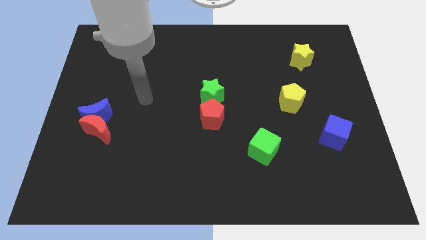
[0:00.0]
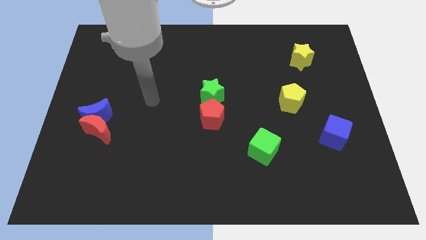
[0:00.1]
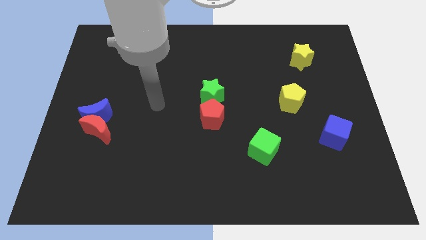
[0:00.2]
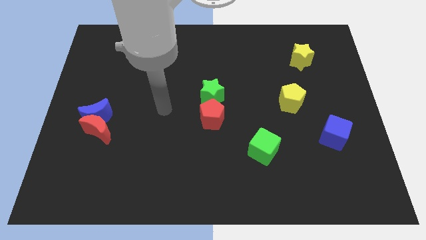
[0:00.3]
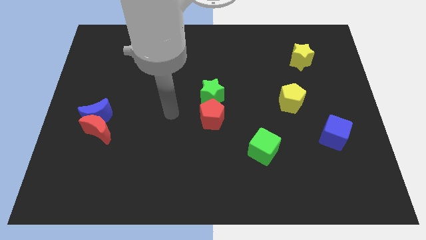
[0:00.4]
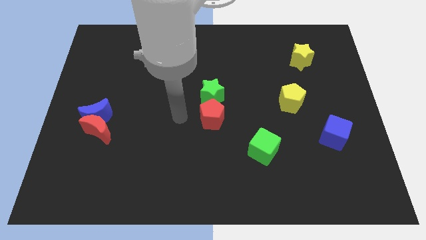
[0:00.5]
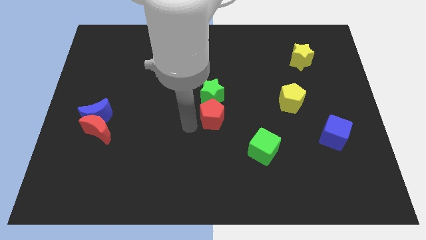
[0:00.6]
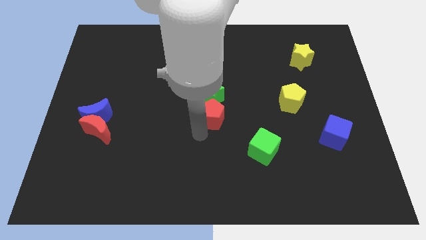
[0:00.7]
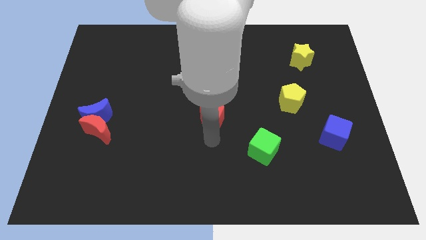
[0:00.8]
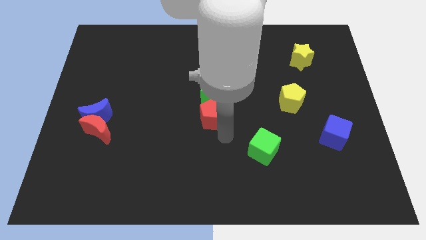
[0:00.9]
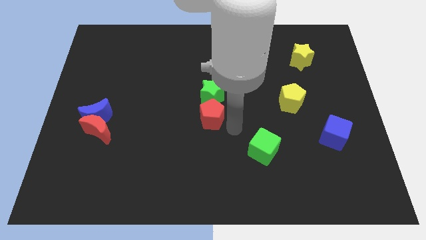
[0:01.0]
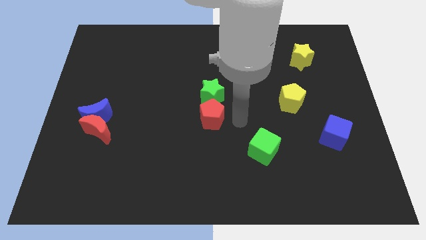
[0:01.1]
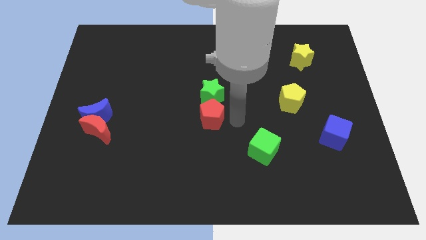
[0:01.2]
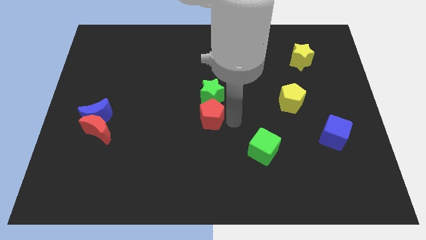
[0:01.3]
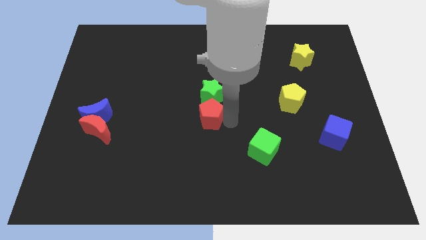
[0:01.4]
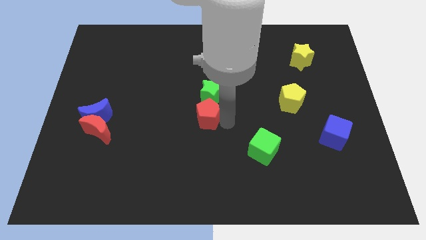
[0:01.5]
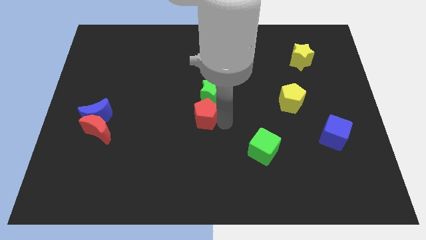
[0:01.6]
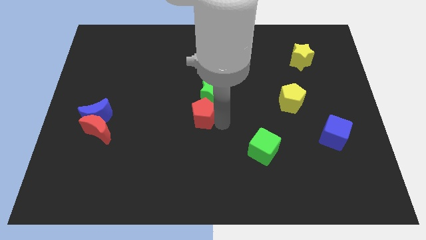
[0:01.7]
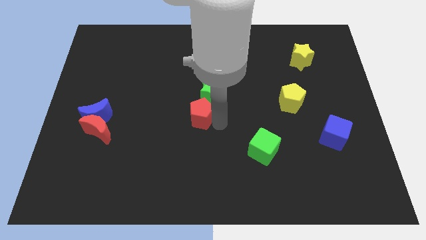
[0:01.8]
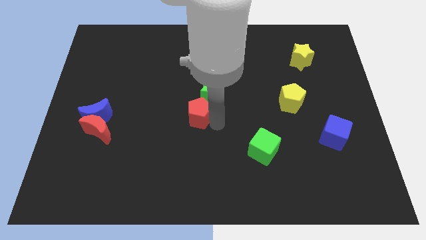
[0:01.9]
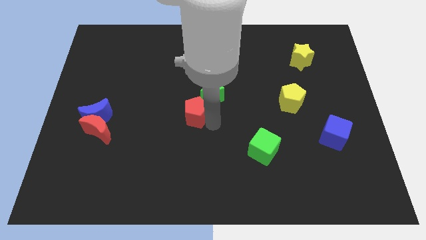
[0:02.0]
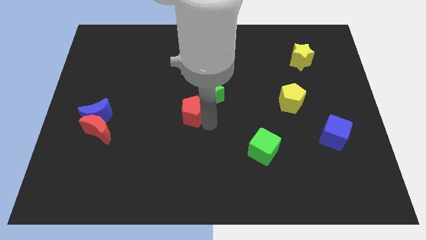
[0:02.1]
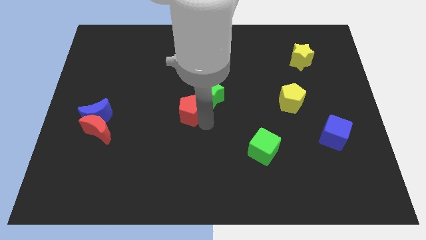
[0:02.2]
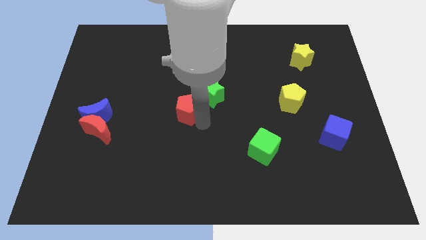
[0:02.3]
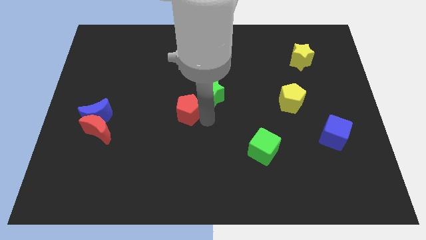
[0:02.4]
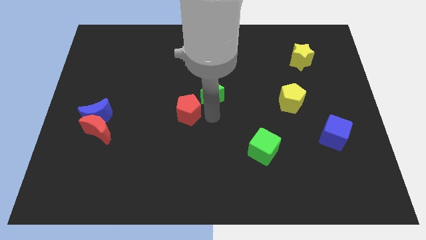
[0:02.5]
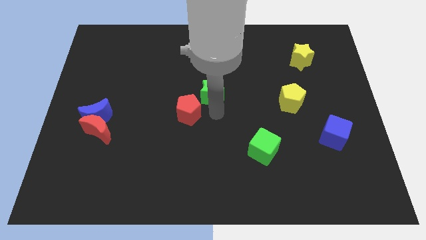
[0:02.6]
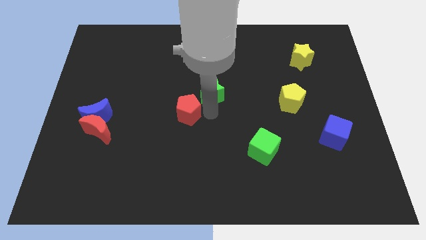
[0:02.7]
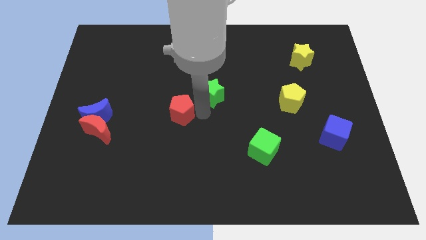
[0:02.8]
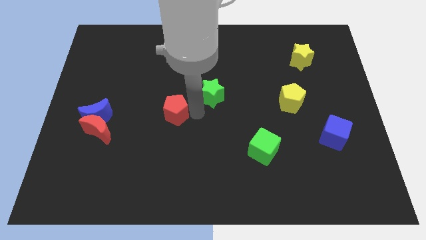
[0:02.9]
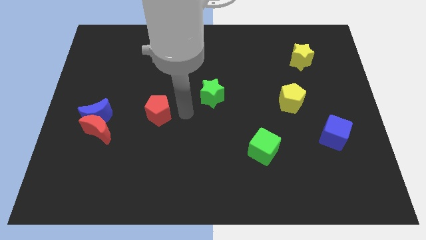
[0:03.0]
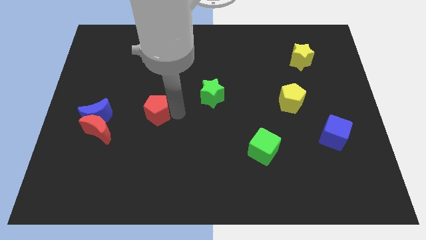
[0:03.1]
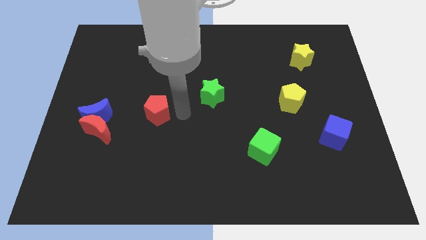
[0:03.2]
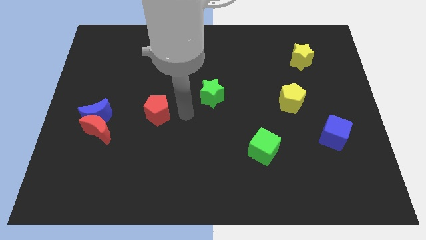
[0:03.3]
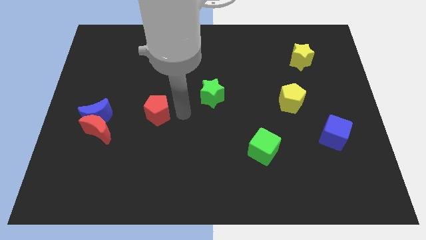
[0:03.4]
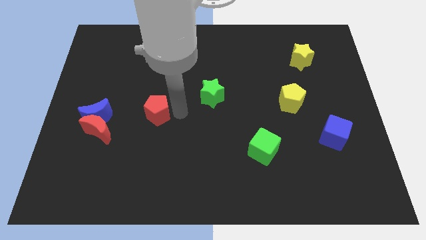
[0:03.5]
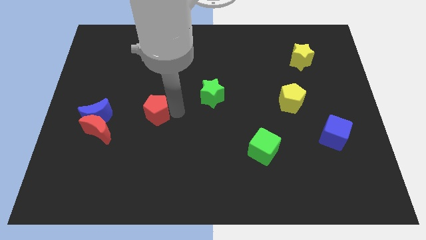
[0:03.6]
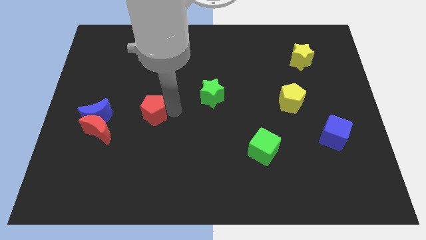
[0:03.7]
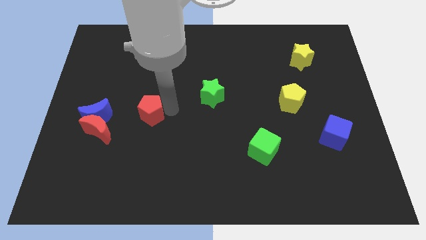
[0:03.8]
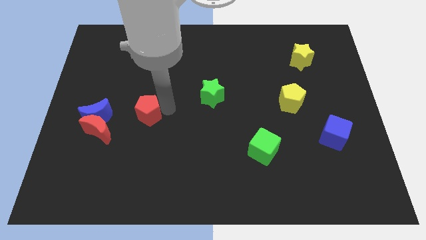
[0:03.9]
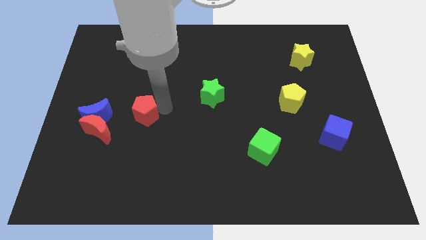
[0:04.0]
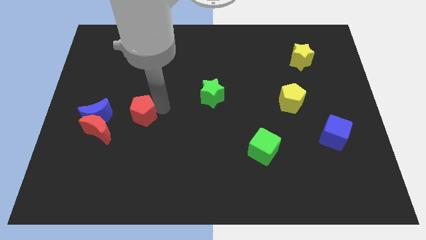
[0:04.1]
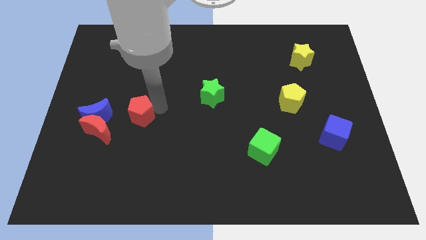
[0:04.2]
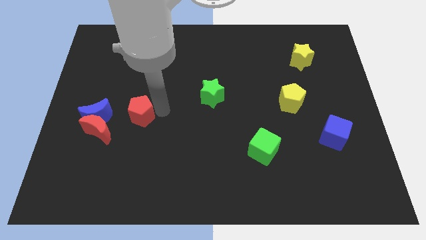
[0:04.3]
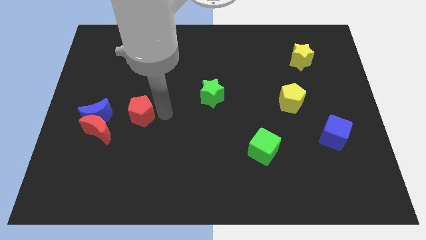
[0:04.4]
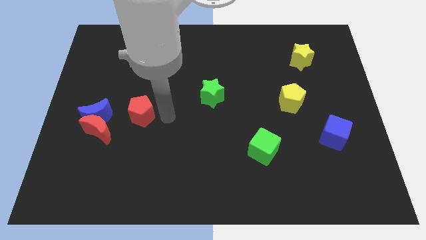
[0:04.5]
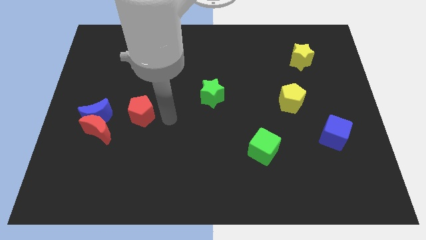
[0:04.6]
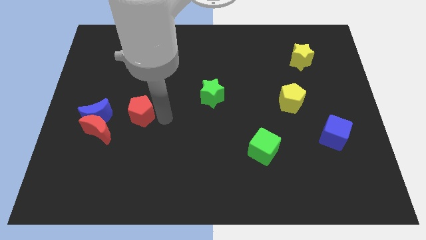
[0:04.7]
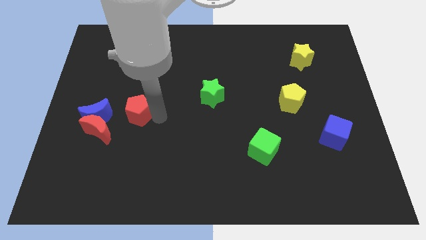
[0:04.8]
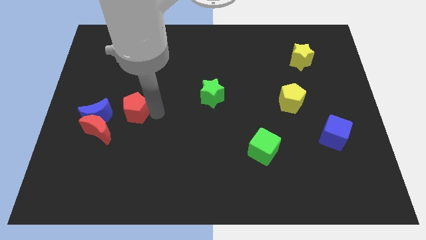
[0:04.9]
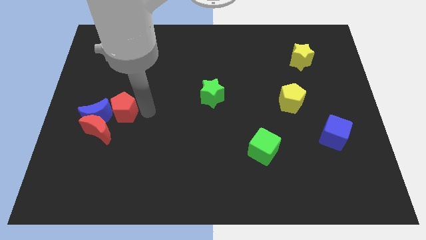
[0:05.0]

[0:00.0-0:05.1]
push the red pentagon close to the blue moon

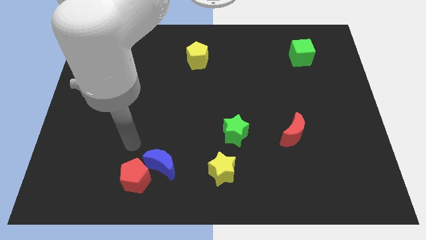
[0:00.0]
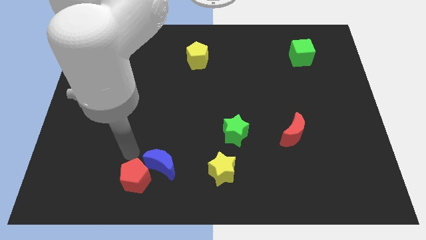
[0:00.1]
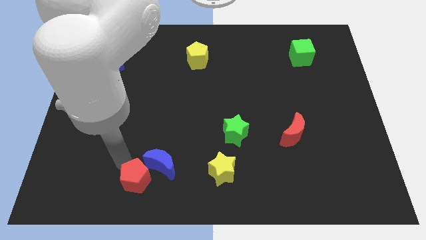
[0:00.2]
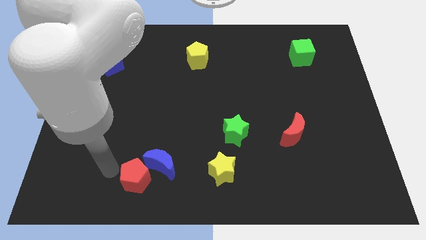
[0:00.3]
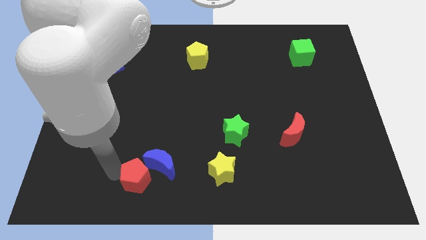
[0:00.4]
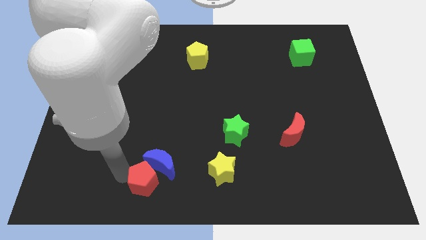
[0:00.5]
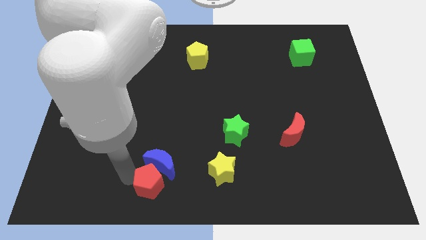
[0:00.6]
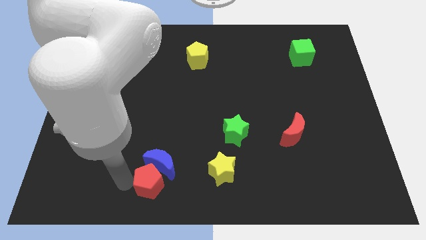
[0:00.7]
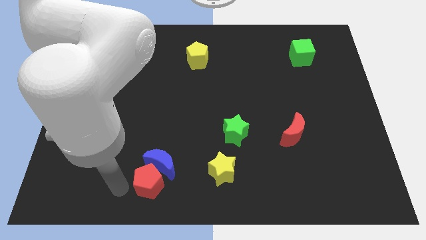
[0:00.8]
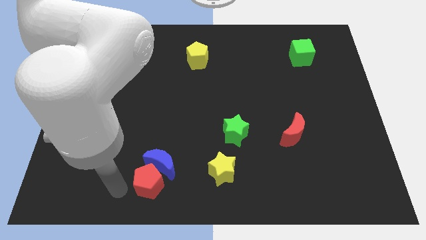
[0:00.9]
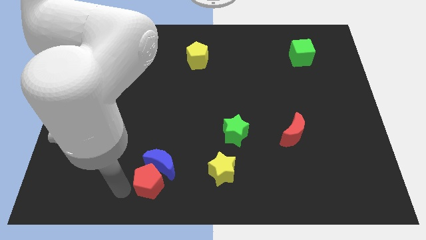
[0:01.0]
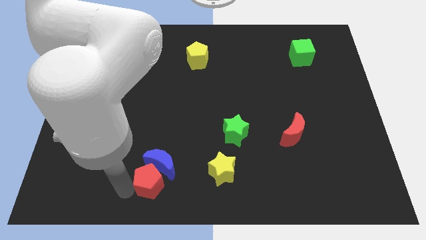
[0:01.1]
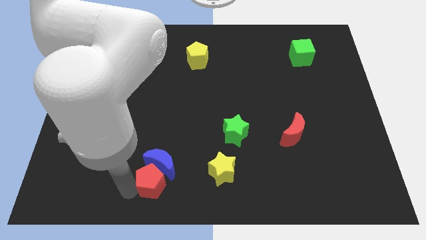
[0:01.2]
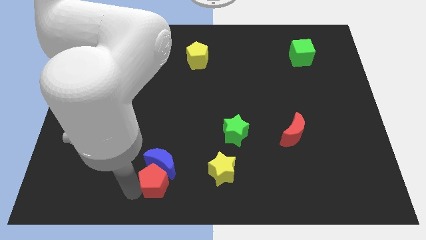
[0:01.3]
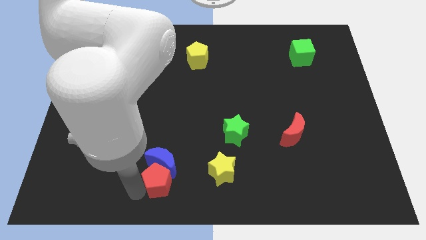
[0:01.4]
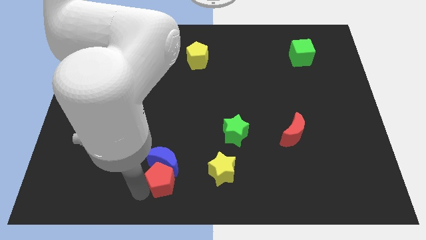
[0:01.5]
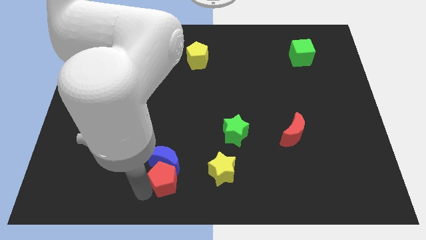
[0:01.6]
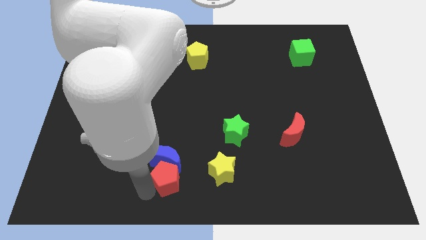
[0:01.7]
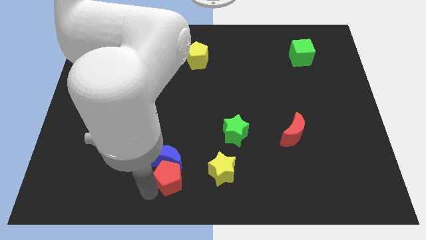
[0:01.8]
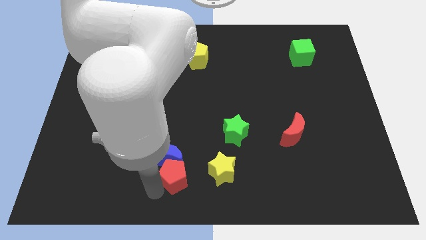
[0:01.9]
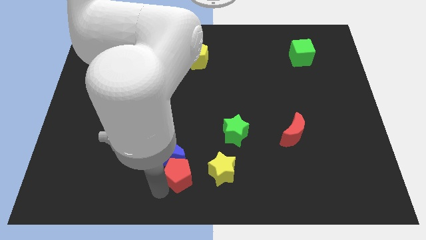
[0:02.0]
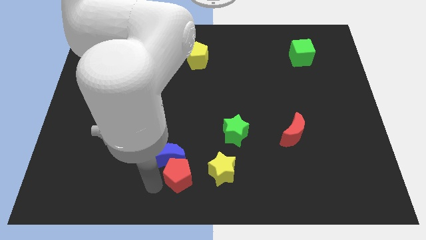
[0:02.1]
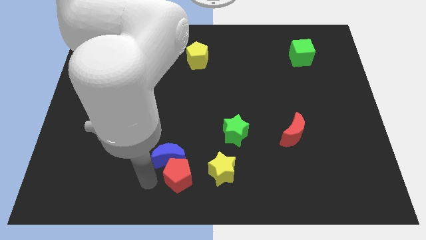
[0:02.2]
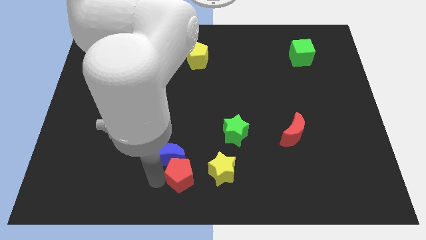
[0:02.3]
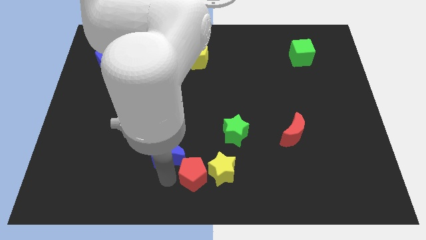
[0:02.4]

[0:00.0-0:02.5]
slide the red pentagon next to the yellow star

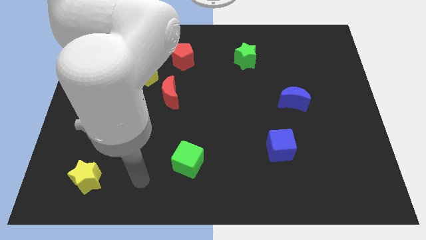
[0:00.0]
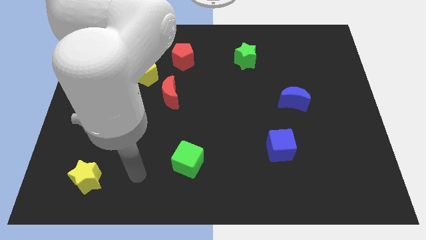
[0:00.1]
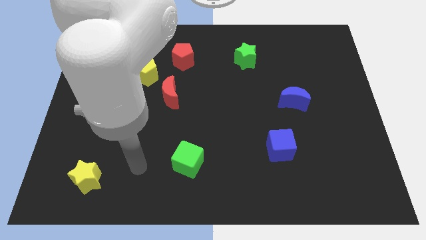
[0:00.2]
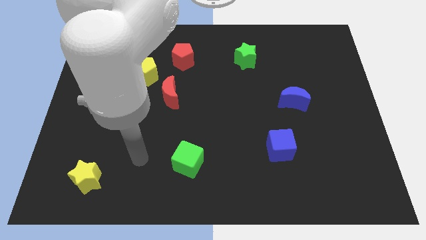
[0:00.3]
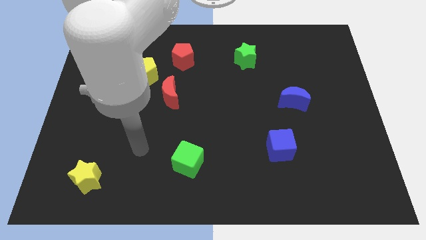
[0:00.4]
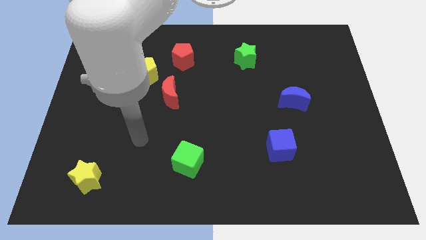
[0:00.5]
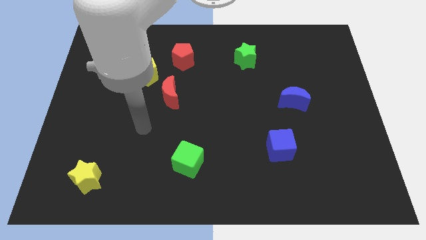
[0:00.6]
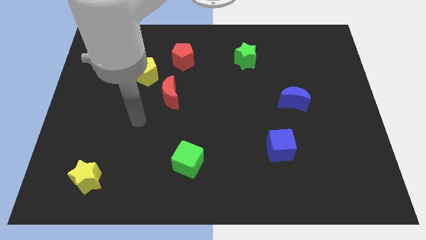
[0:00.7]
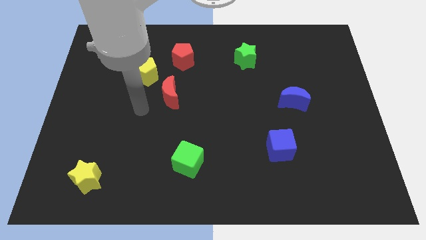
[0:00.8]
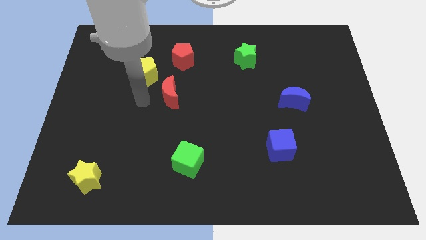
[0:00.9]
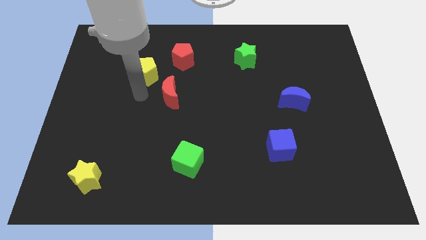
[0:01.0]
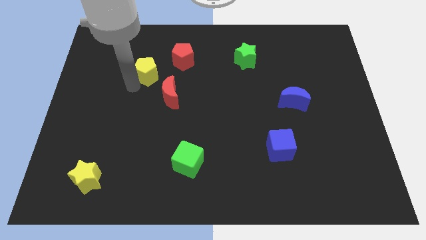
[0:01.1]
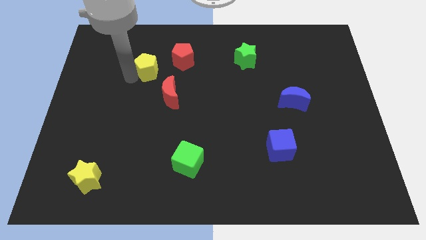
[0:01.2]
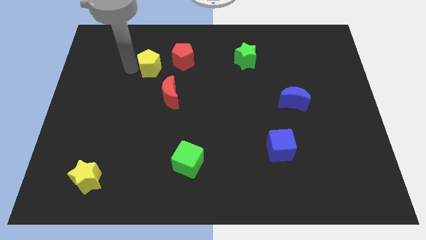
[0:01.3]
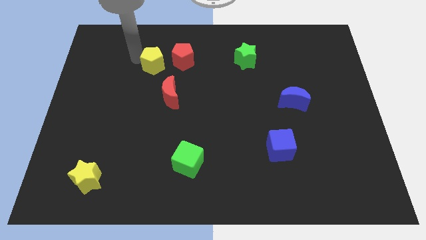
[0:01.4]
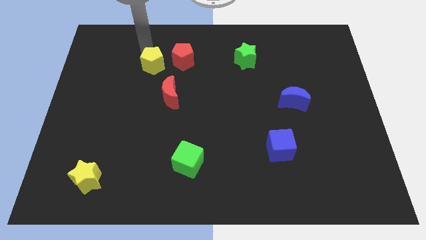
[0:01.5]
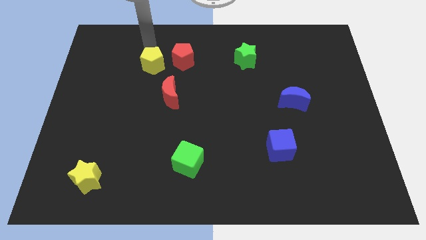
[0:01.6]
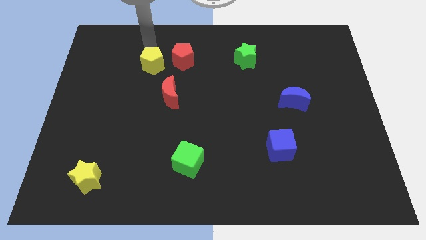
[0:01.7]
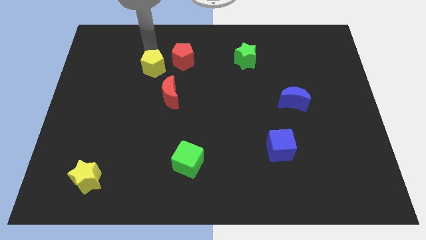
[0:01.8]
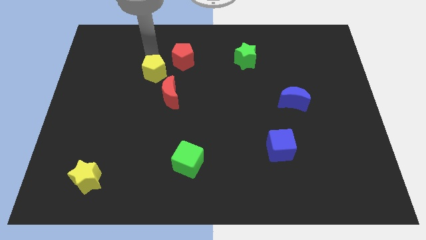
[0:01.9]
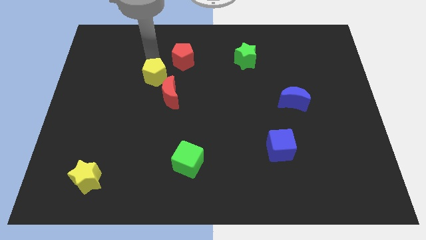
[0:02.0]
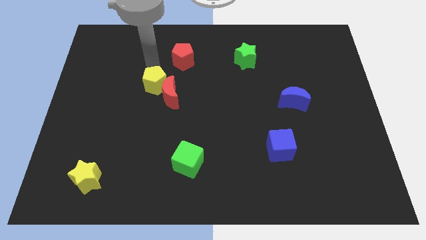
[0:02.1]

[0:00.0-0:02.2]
slide the yellow pentagon towards the red moon
